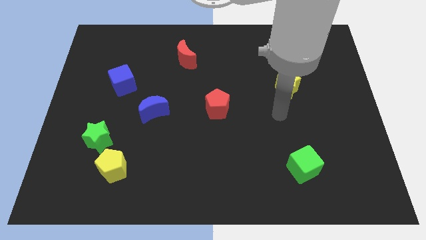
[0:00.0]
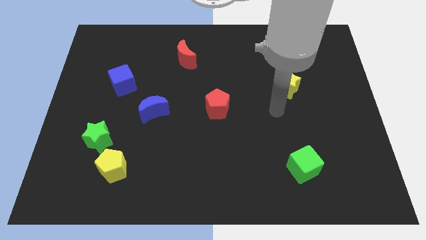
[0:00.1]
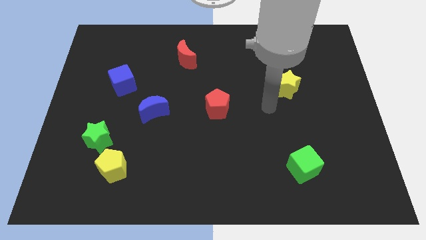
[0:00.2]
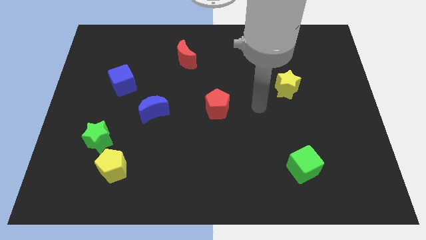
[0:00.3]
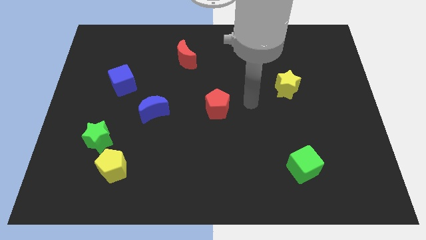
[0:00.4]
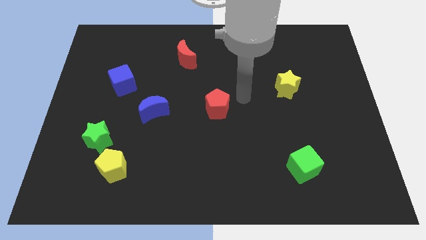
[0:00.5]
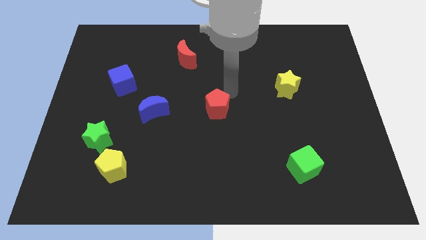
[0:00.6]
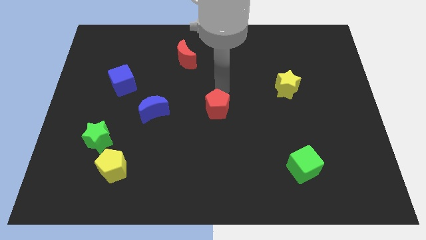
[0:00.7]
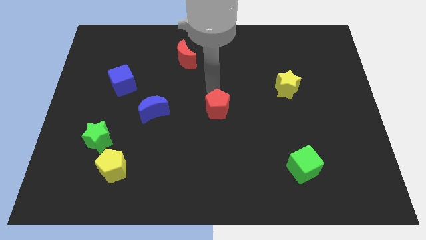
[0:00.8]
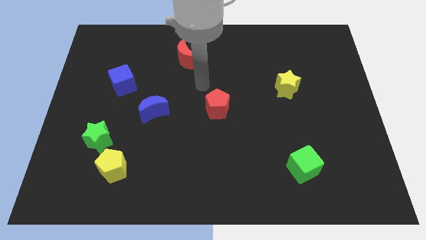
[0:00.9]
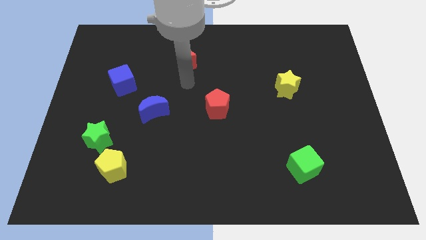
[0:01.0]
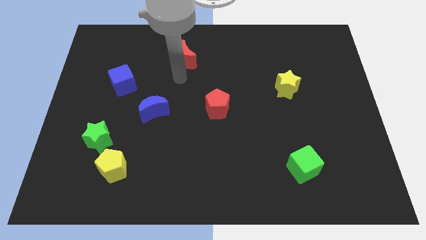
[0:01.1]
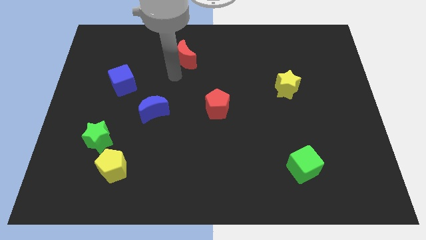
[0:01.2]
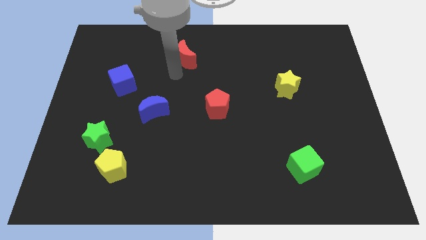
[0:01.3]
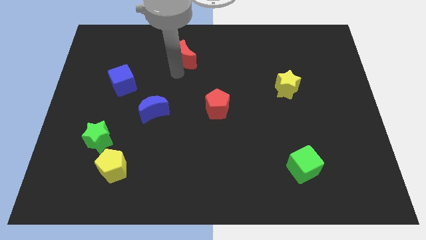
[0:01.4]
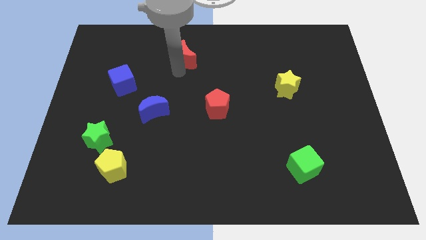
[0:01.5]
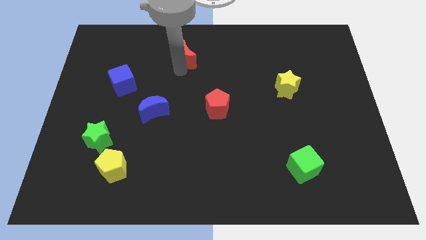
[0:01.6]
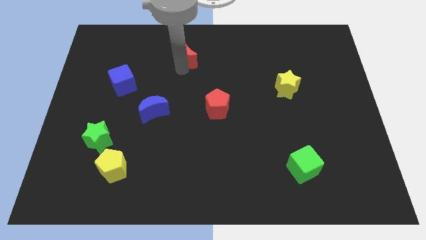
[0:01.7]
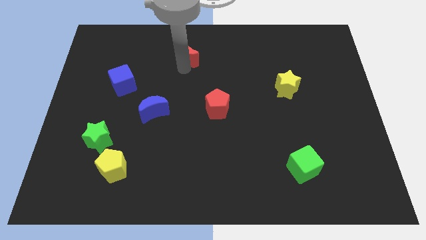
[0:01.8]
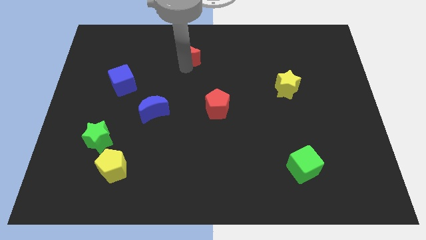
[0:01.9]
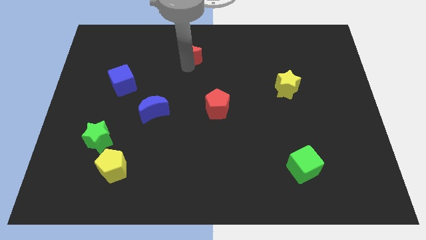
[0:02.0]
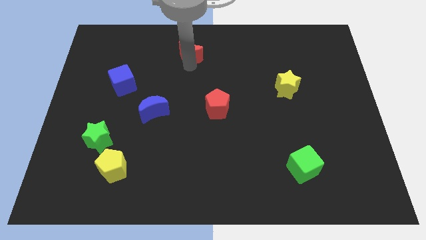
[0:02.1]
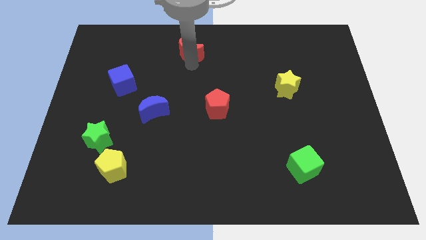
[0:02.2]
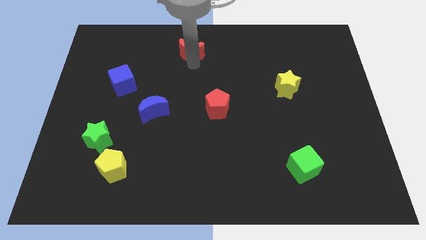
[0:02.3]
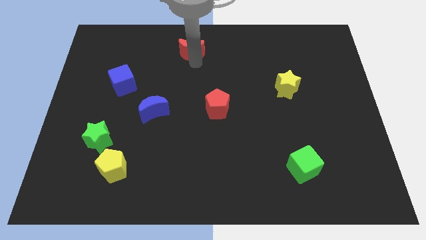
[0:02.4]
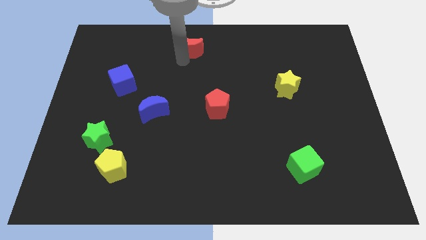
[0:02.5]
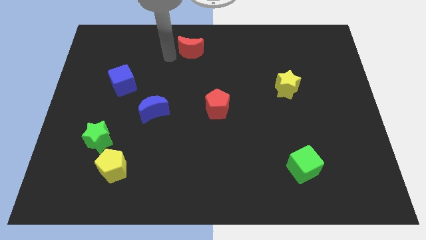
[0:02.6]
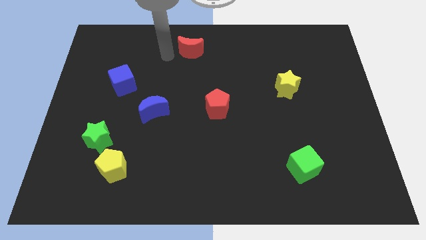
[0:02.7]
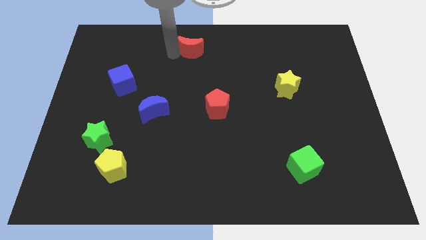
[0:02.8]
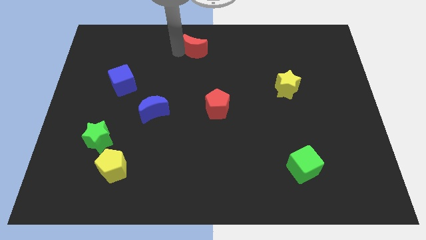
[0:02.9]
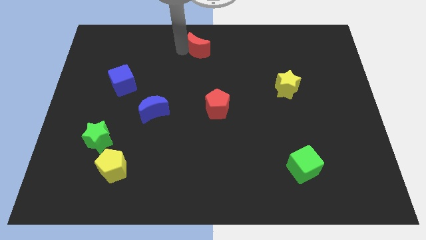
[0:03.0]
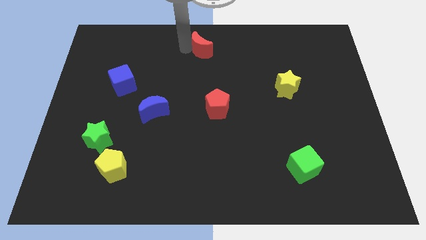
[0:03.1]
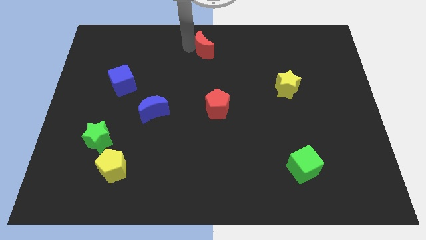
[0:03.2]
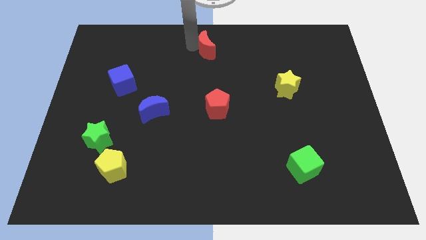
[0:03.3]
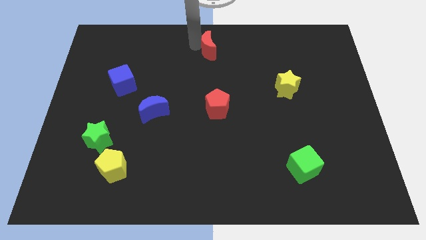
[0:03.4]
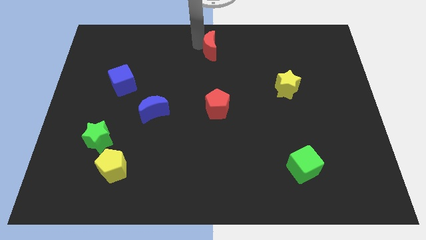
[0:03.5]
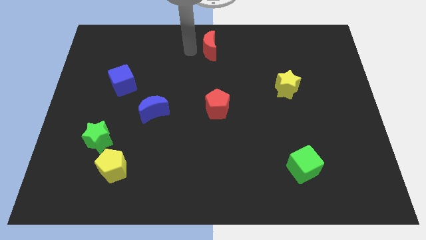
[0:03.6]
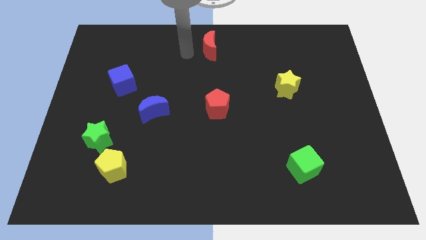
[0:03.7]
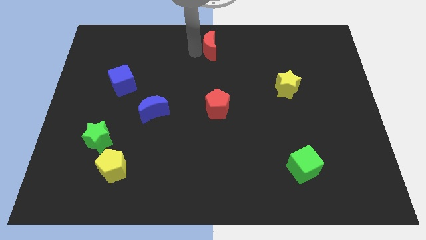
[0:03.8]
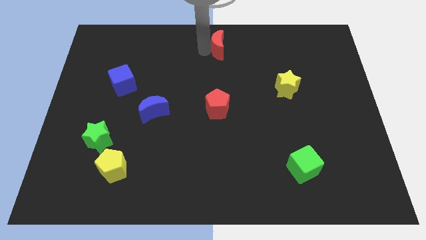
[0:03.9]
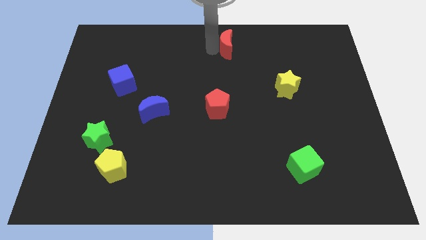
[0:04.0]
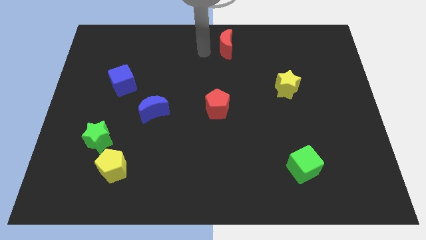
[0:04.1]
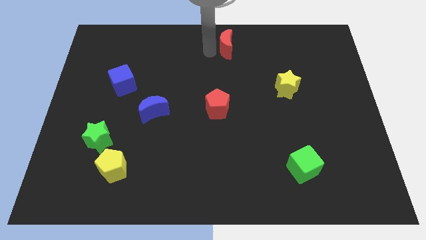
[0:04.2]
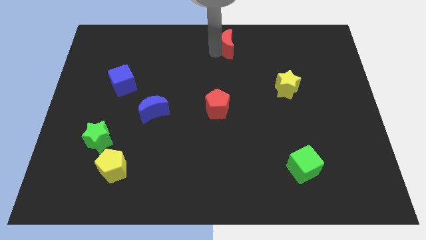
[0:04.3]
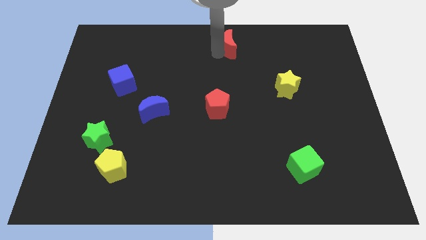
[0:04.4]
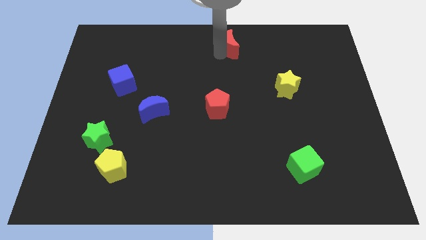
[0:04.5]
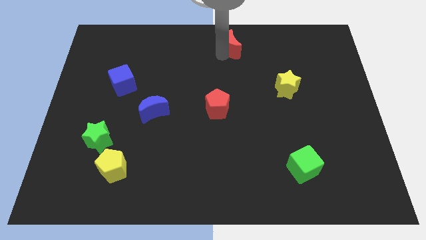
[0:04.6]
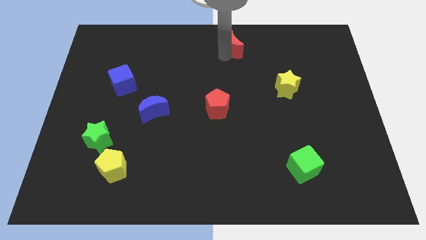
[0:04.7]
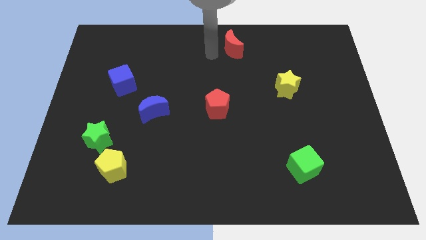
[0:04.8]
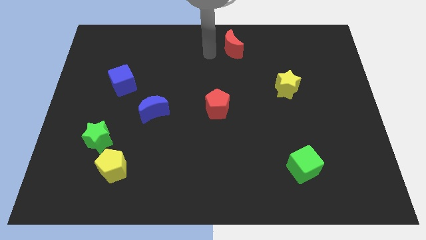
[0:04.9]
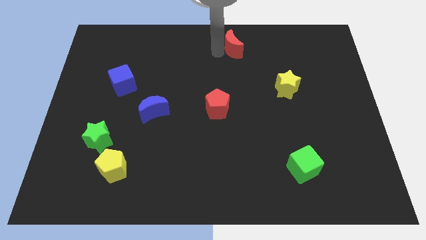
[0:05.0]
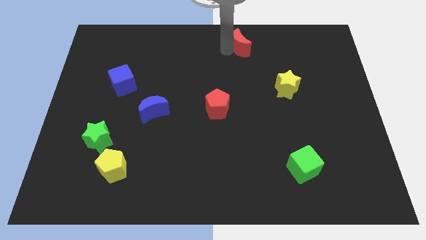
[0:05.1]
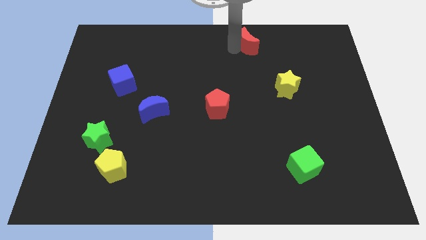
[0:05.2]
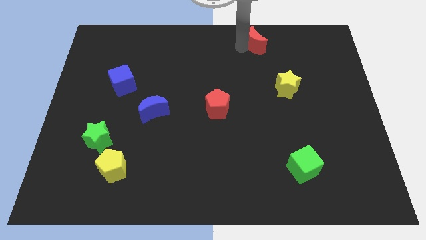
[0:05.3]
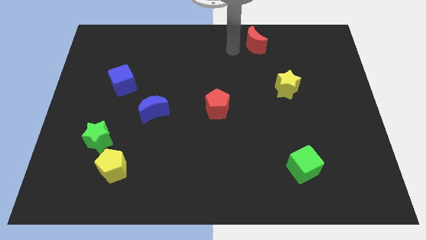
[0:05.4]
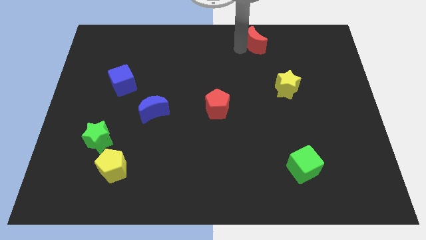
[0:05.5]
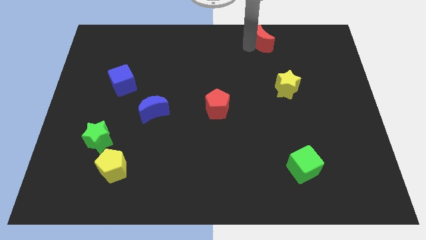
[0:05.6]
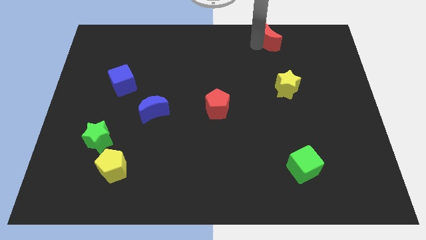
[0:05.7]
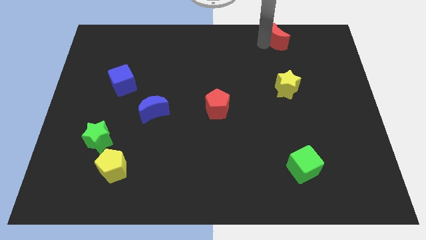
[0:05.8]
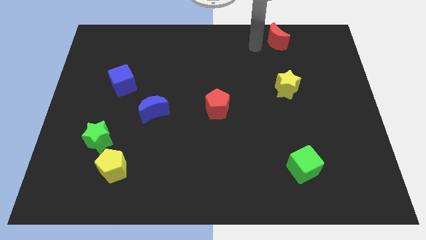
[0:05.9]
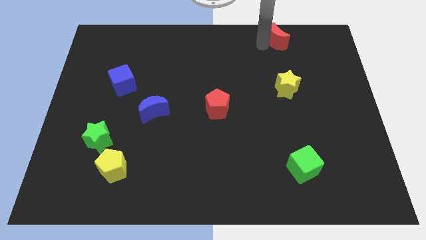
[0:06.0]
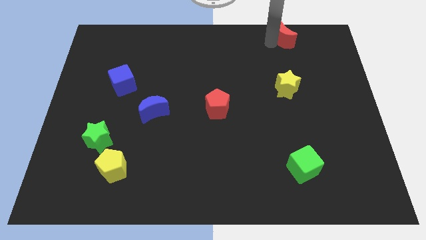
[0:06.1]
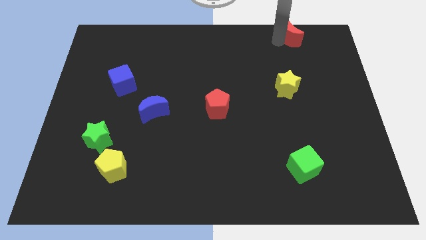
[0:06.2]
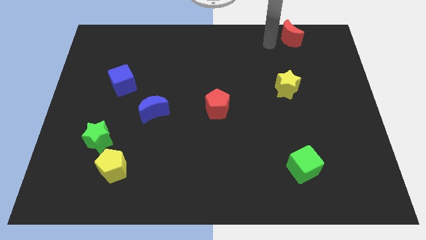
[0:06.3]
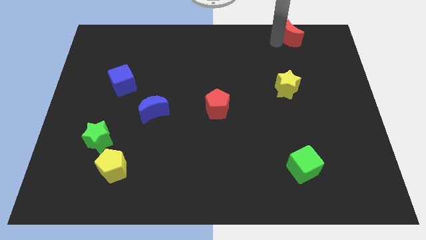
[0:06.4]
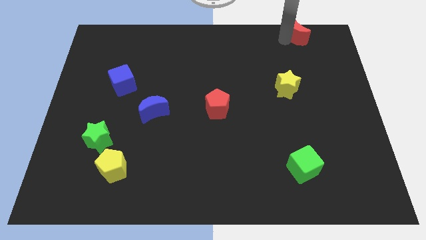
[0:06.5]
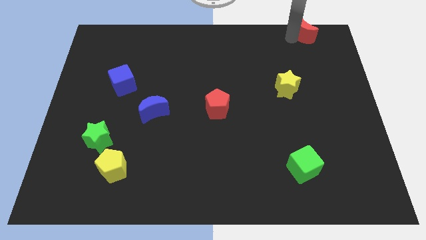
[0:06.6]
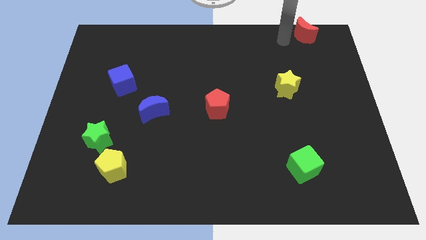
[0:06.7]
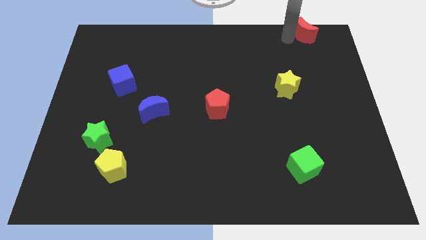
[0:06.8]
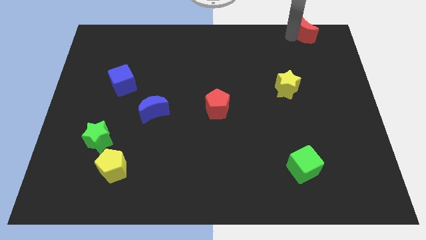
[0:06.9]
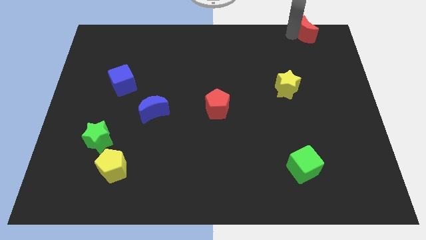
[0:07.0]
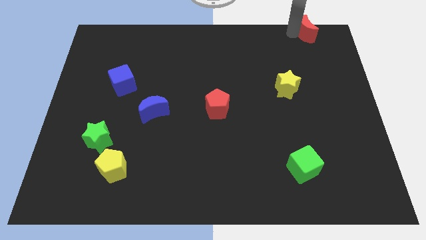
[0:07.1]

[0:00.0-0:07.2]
move the red moon to the top right corner
